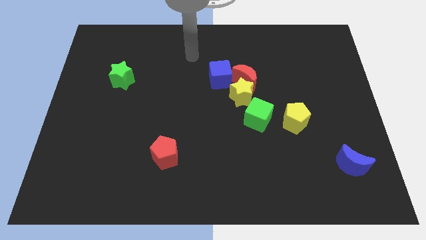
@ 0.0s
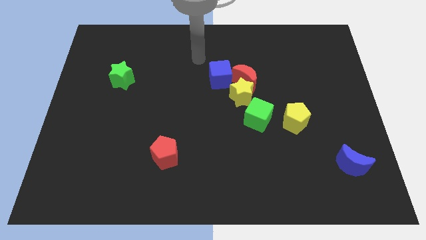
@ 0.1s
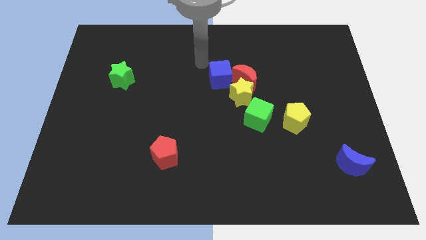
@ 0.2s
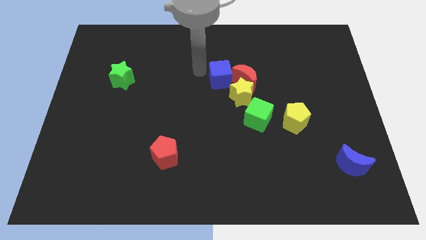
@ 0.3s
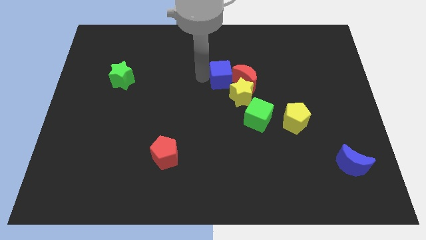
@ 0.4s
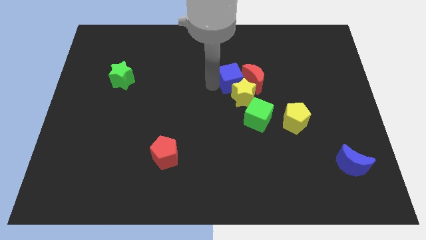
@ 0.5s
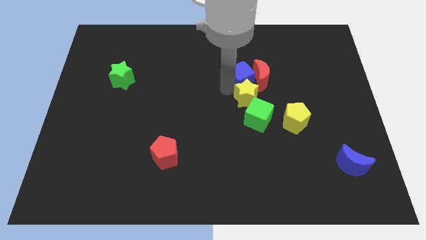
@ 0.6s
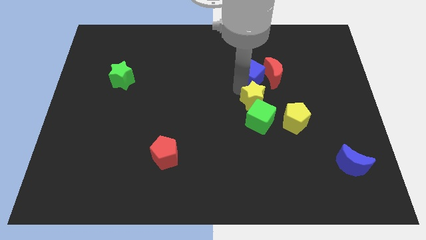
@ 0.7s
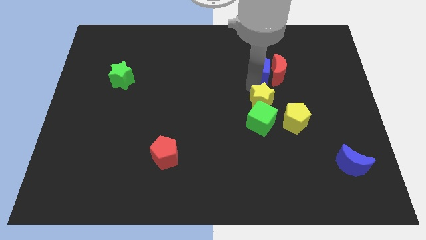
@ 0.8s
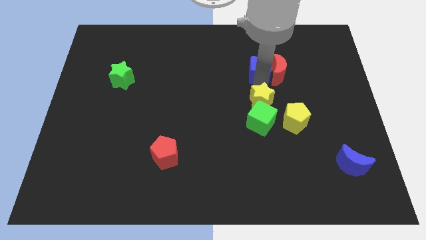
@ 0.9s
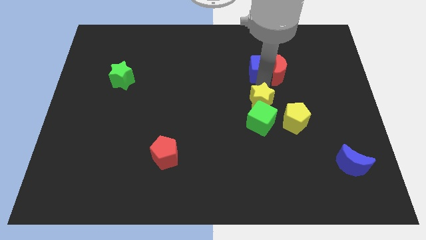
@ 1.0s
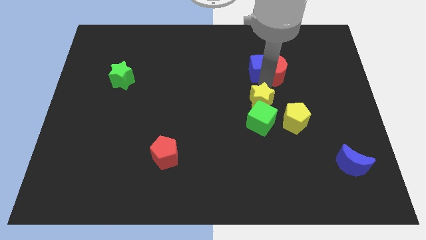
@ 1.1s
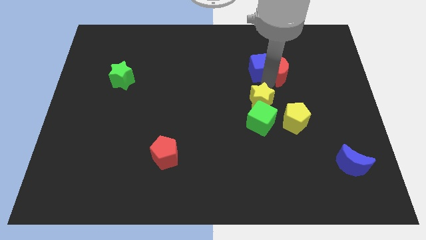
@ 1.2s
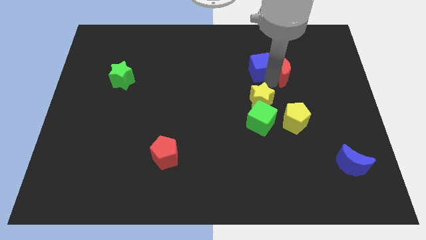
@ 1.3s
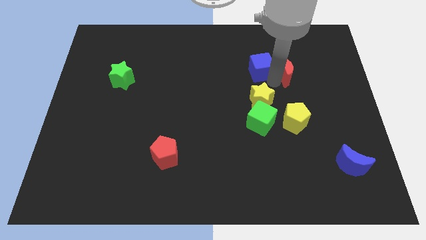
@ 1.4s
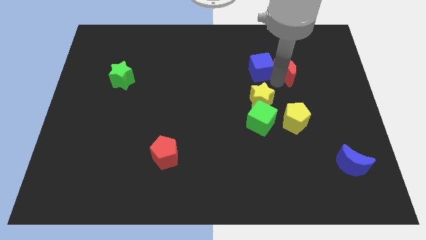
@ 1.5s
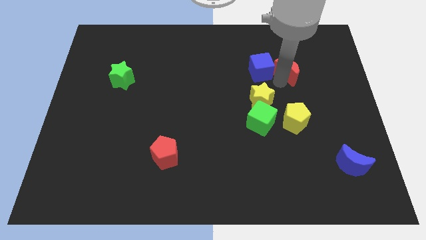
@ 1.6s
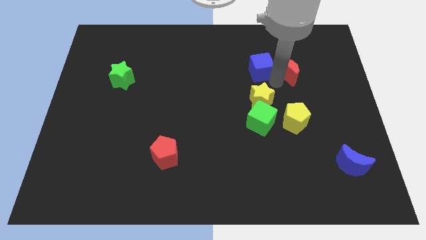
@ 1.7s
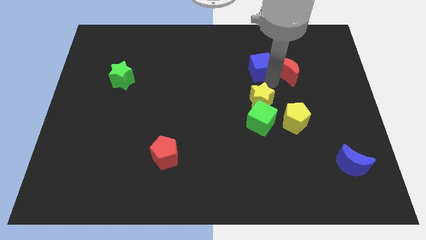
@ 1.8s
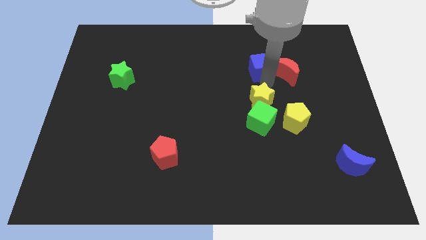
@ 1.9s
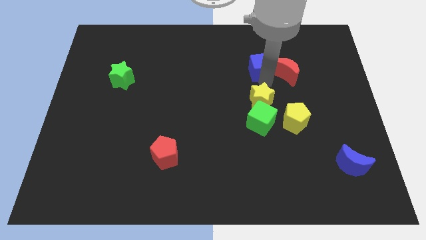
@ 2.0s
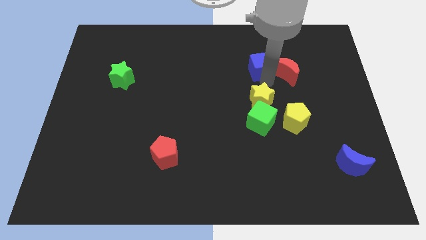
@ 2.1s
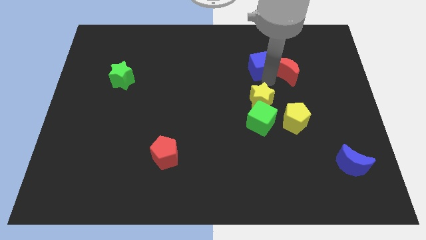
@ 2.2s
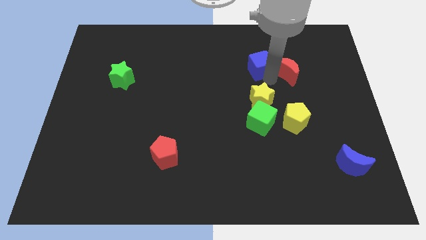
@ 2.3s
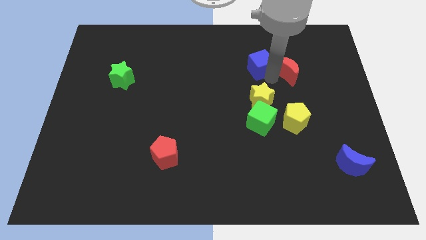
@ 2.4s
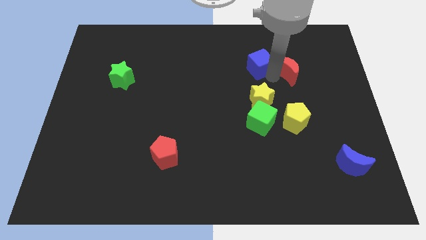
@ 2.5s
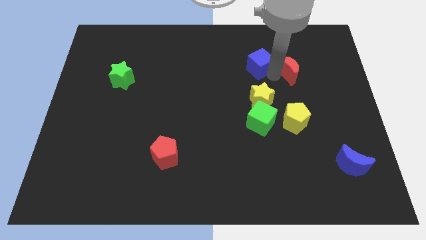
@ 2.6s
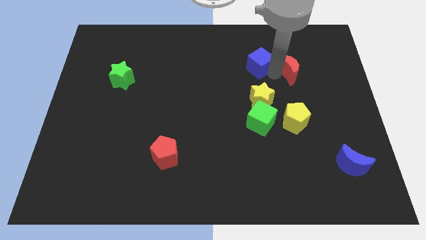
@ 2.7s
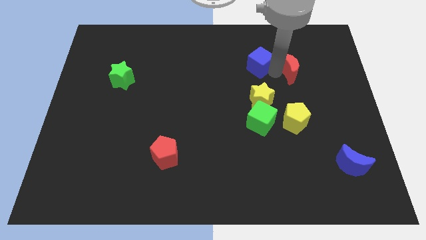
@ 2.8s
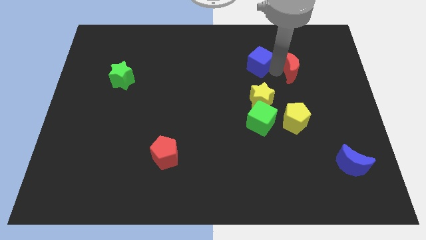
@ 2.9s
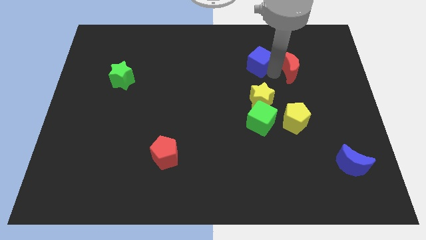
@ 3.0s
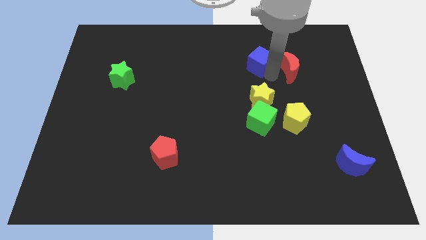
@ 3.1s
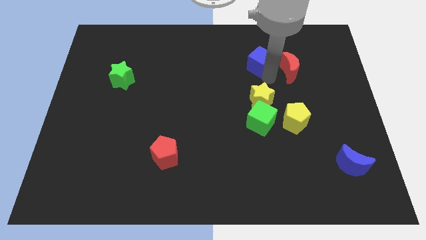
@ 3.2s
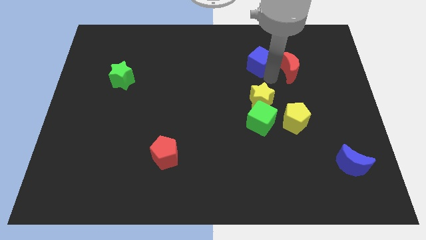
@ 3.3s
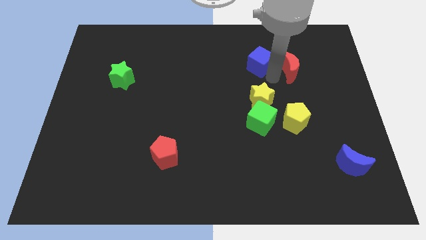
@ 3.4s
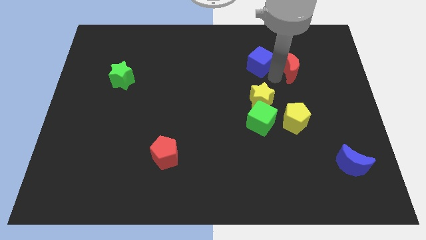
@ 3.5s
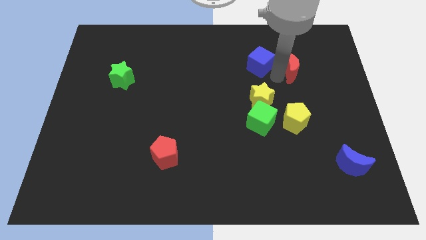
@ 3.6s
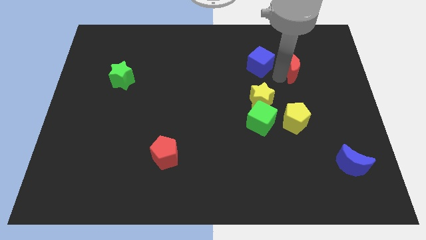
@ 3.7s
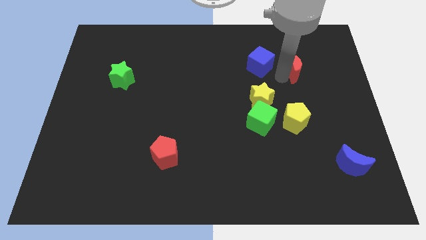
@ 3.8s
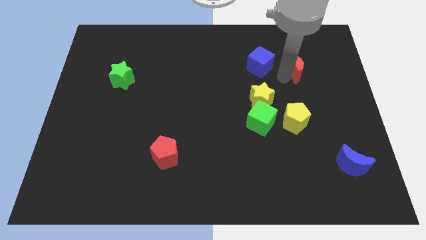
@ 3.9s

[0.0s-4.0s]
separate the red moon from the yellow star and blue cube

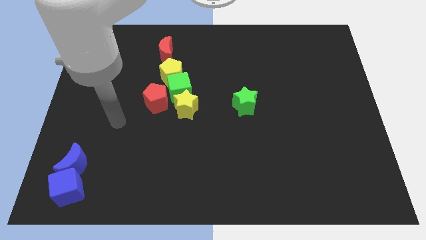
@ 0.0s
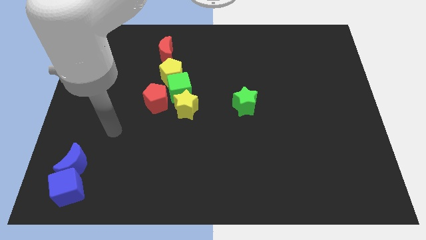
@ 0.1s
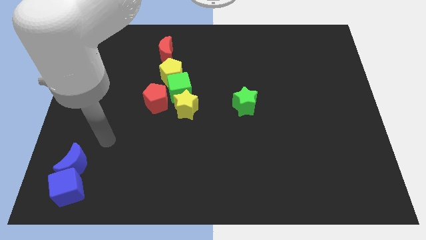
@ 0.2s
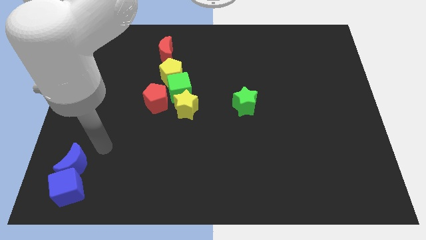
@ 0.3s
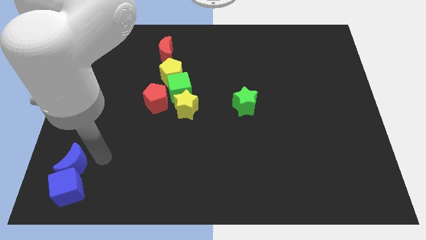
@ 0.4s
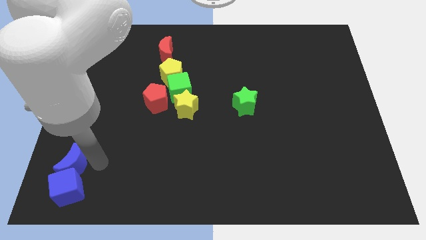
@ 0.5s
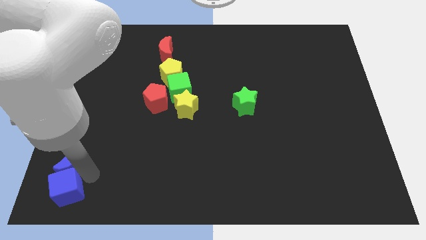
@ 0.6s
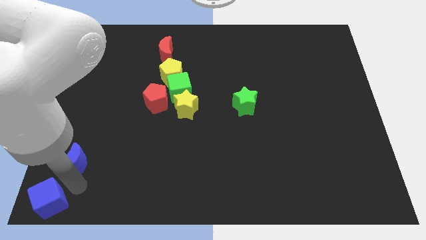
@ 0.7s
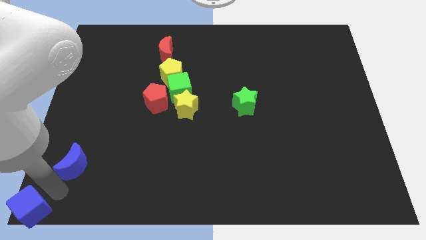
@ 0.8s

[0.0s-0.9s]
separate the blue moon from the blue cube

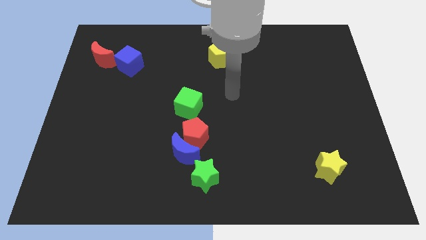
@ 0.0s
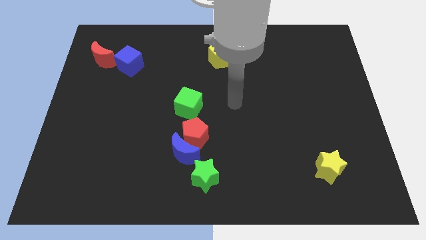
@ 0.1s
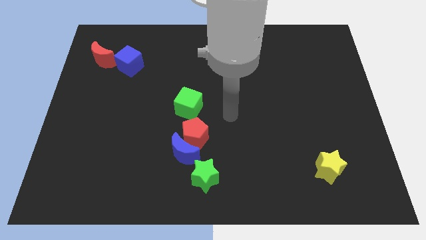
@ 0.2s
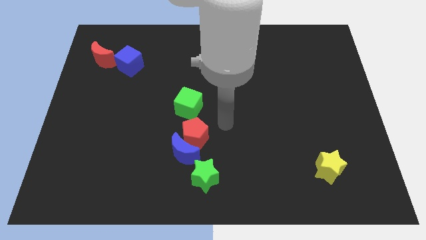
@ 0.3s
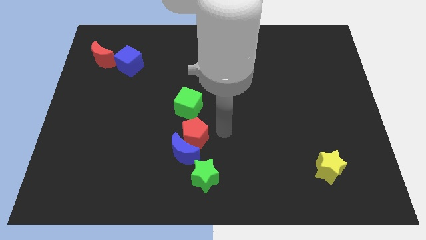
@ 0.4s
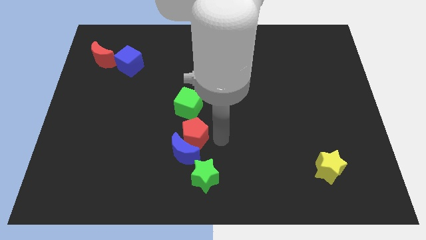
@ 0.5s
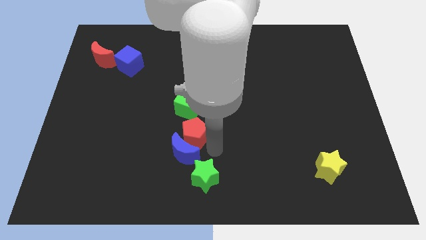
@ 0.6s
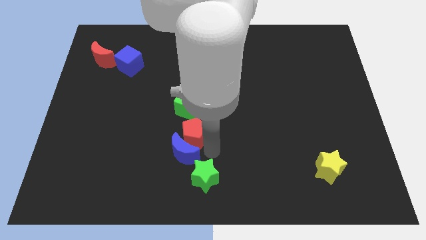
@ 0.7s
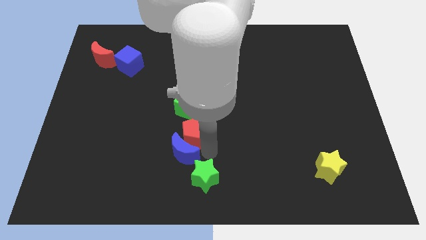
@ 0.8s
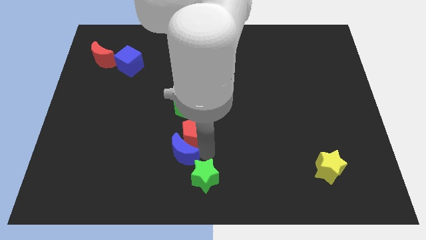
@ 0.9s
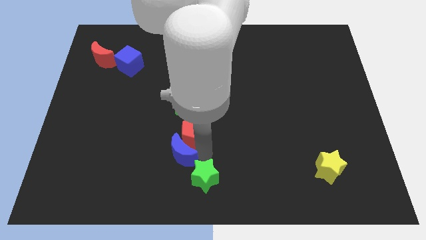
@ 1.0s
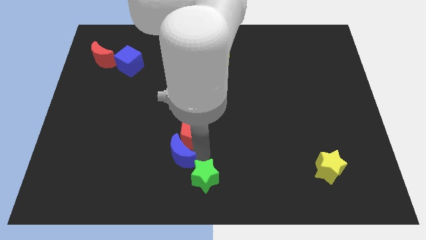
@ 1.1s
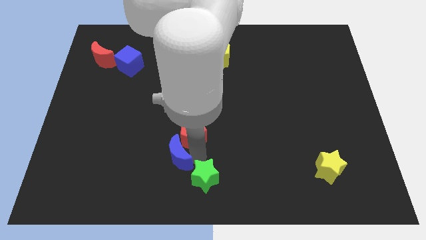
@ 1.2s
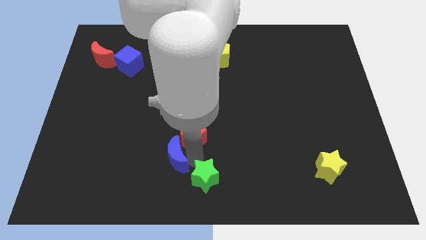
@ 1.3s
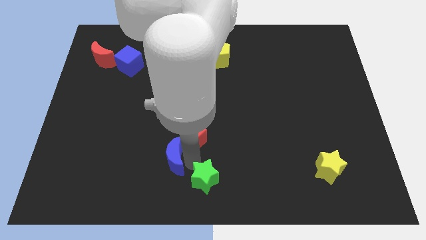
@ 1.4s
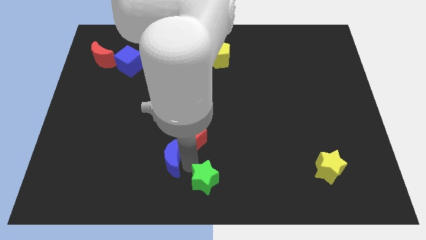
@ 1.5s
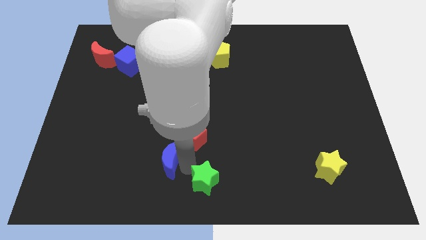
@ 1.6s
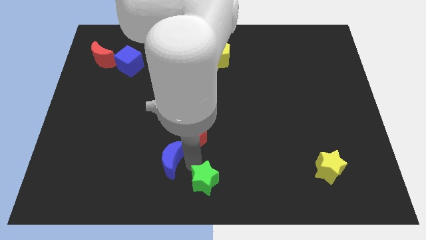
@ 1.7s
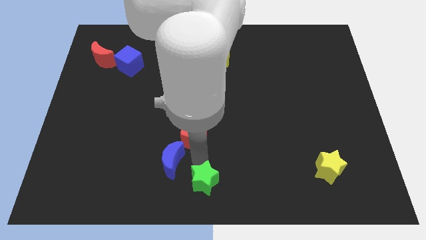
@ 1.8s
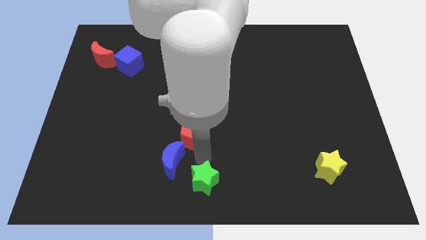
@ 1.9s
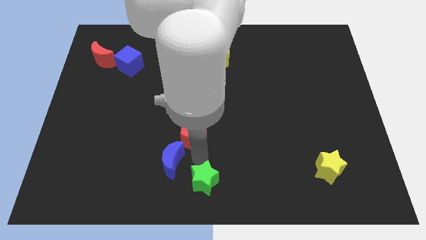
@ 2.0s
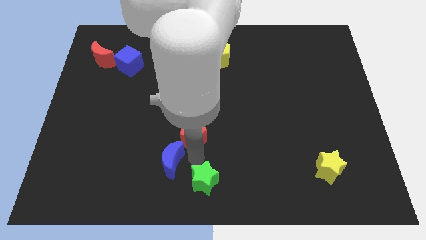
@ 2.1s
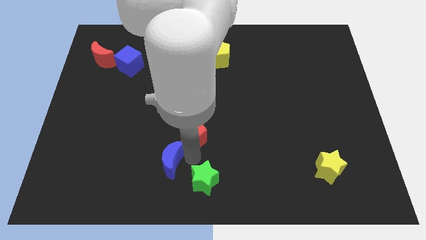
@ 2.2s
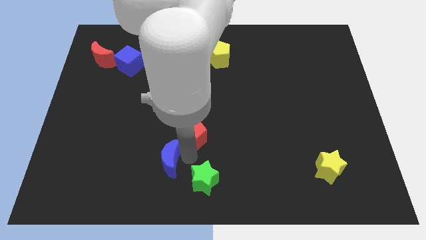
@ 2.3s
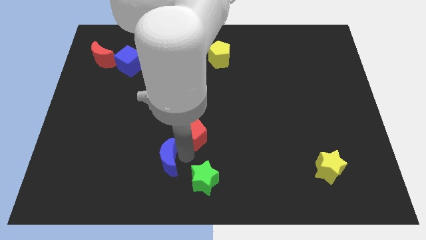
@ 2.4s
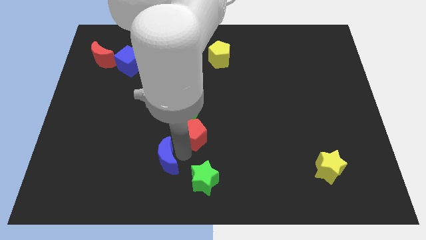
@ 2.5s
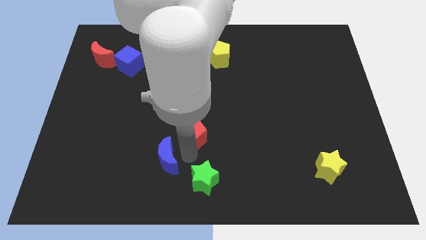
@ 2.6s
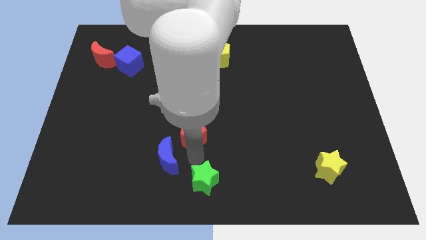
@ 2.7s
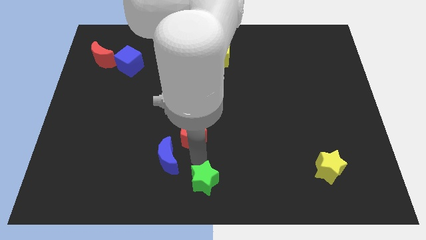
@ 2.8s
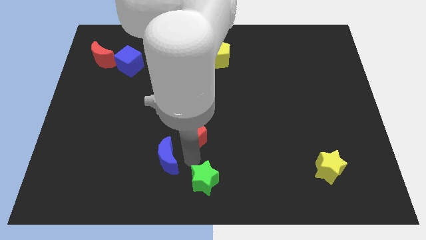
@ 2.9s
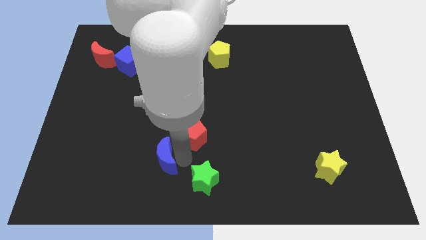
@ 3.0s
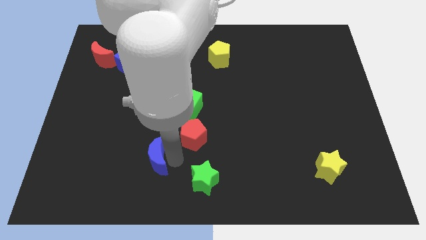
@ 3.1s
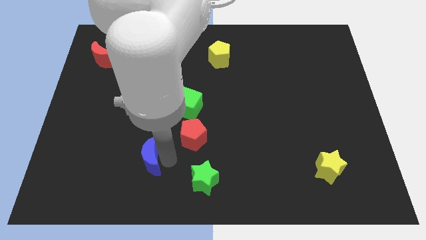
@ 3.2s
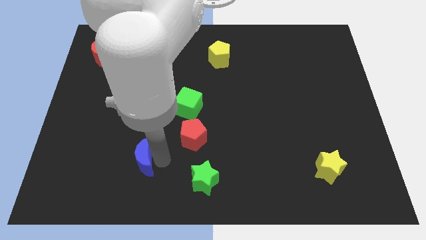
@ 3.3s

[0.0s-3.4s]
separate the blue moon from the red pentagon and green star

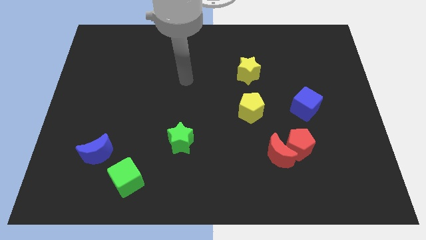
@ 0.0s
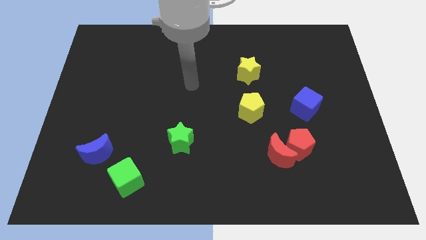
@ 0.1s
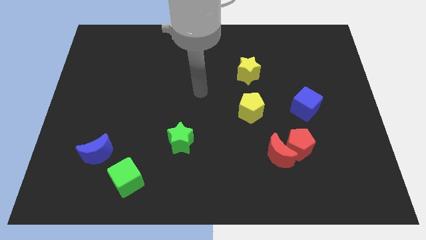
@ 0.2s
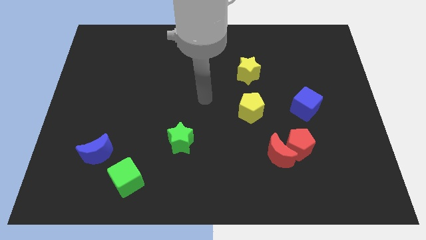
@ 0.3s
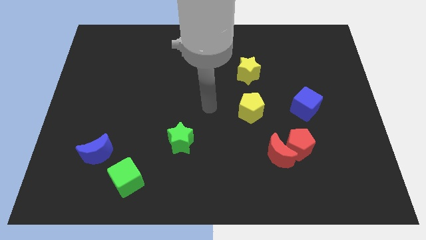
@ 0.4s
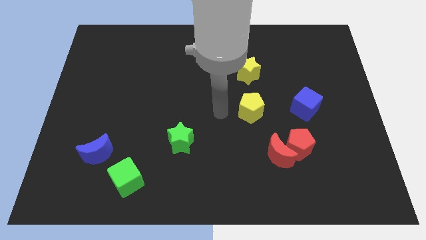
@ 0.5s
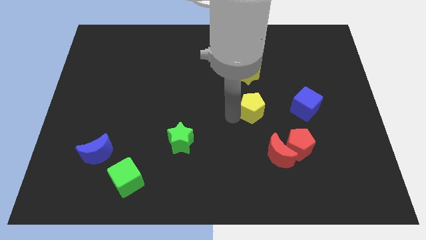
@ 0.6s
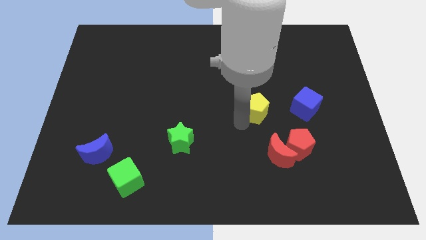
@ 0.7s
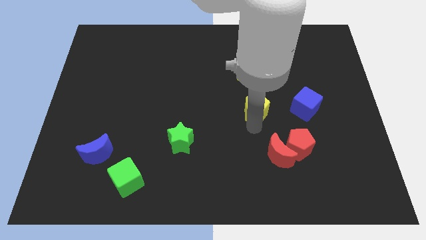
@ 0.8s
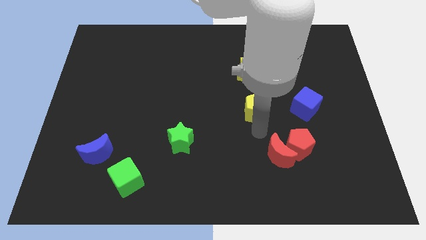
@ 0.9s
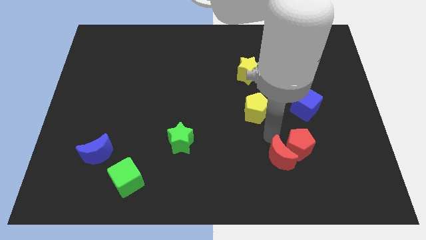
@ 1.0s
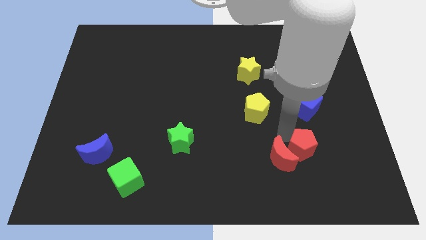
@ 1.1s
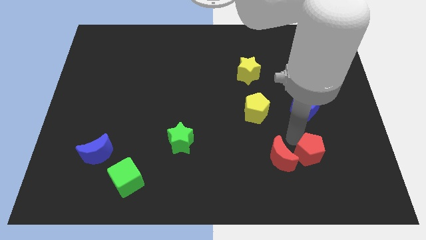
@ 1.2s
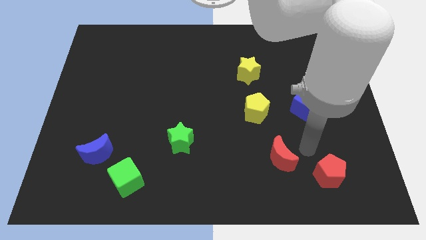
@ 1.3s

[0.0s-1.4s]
move the red moon away from the red pentagon
